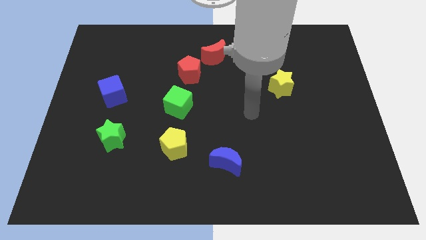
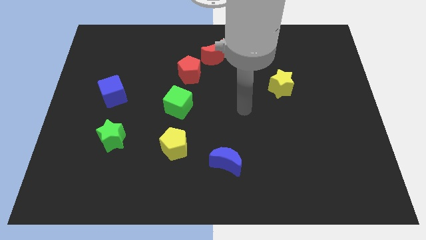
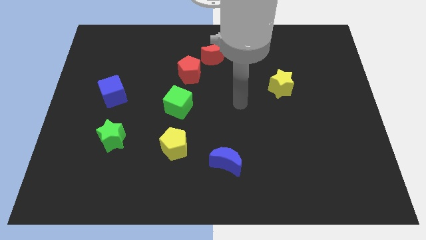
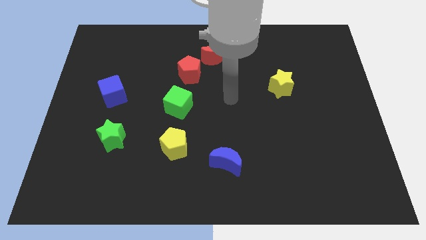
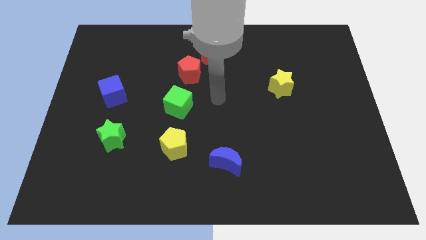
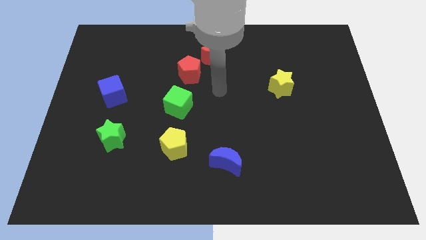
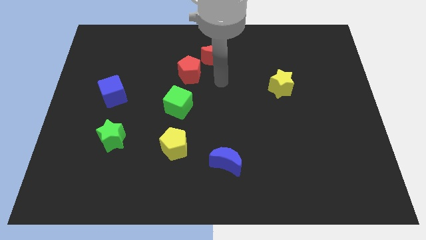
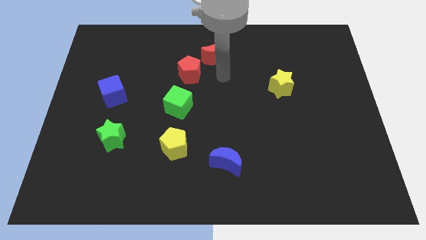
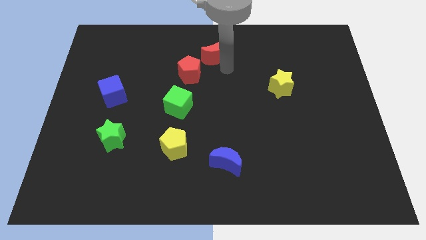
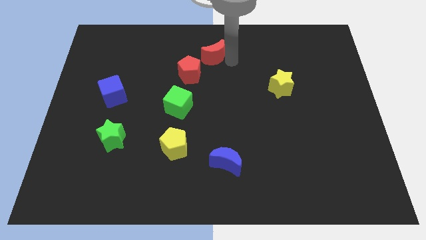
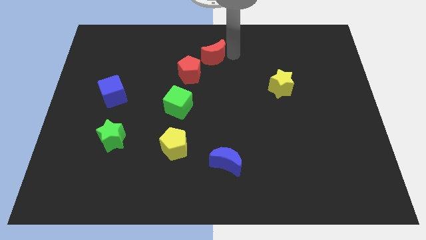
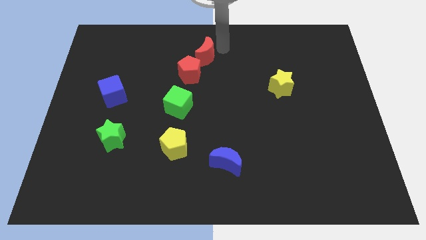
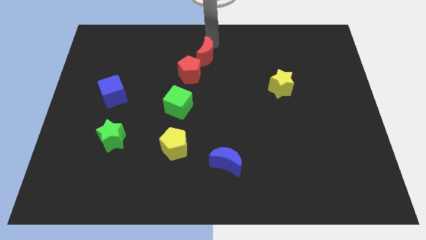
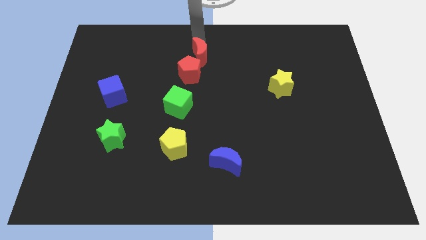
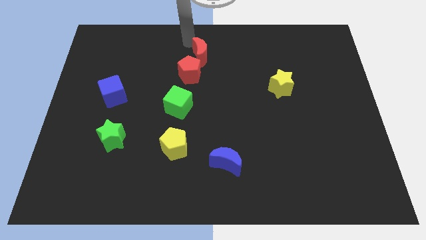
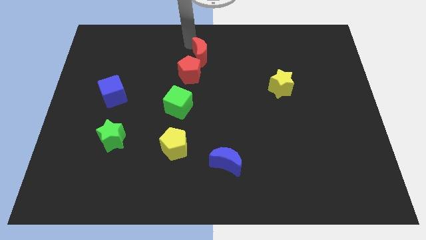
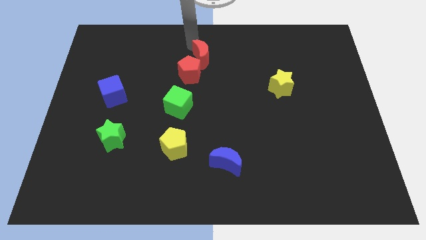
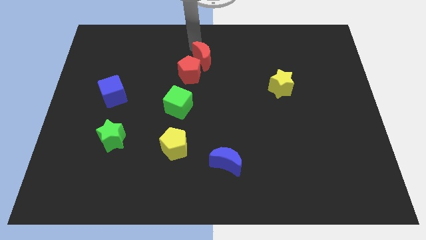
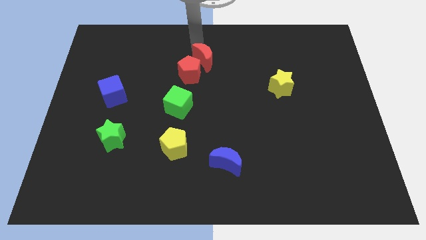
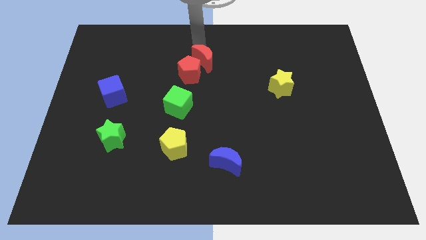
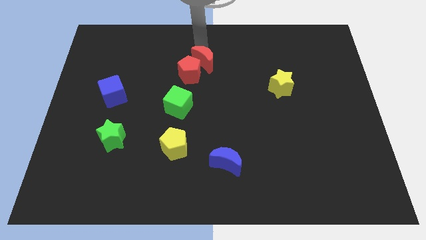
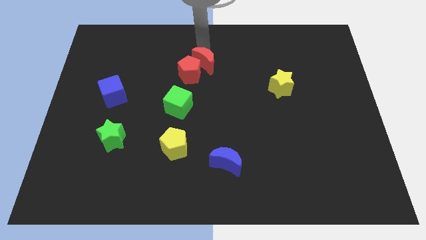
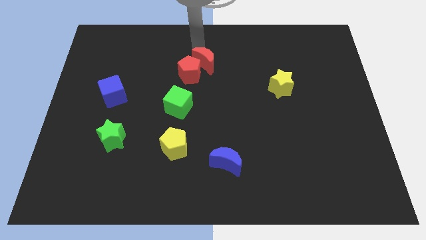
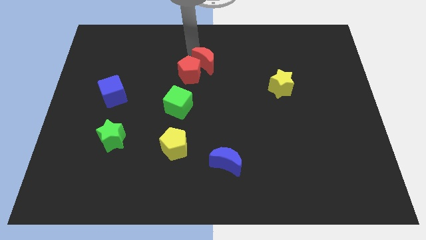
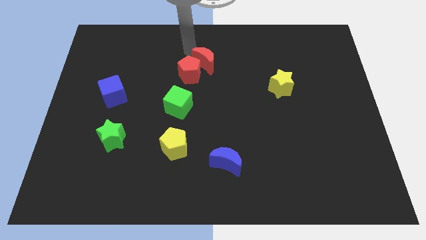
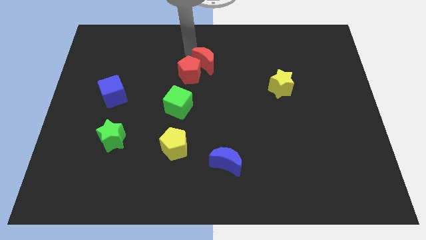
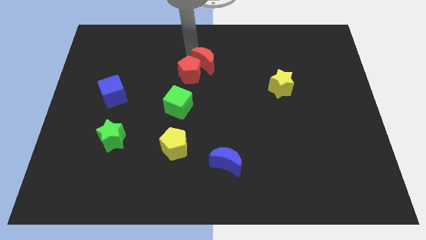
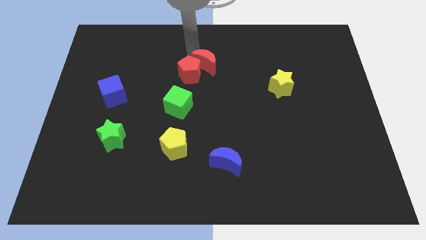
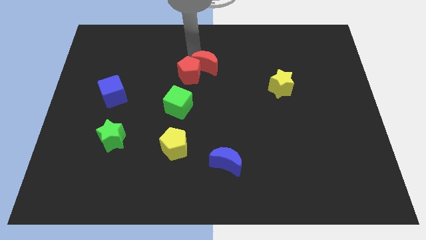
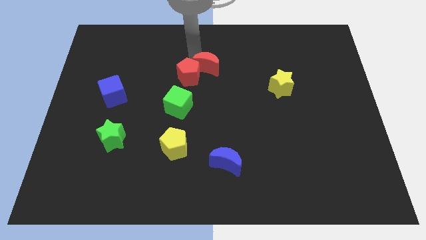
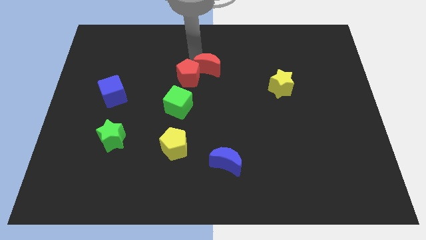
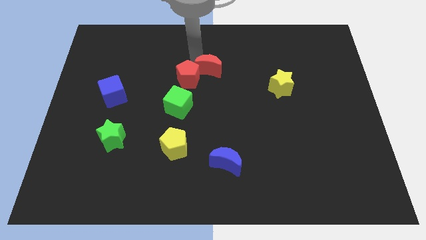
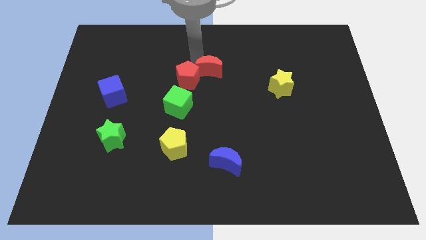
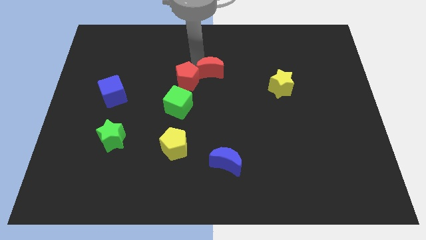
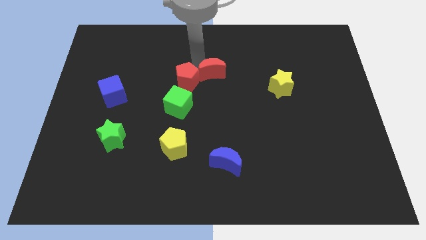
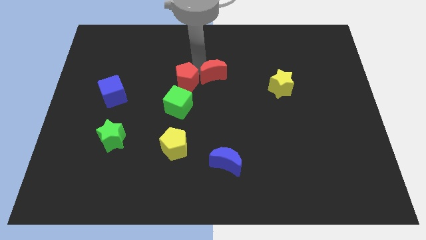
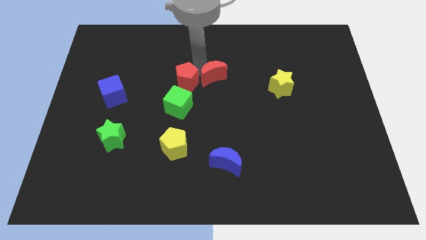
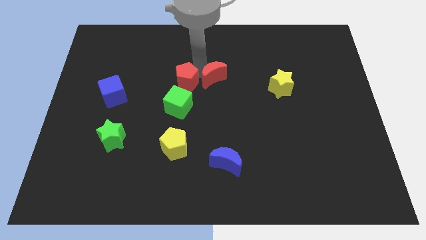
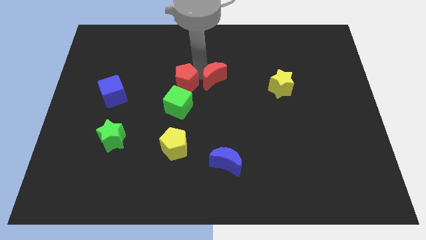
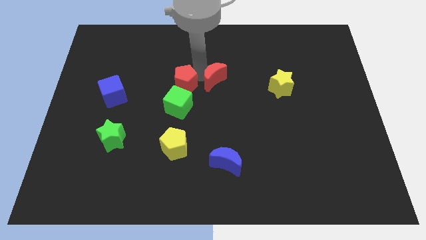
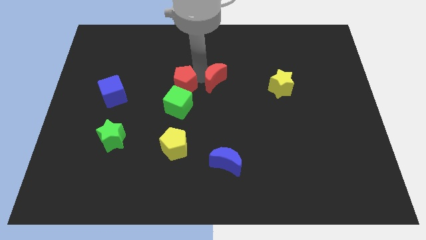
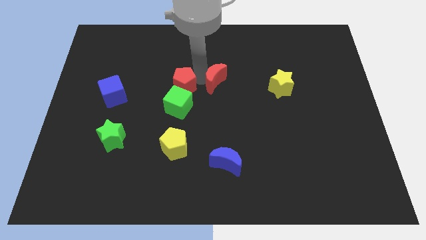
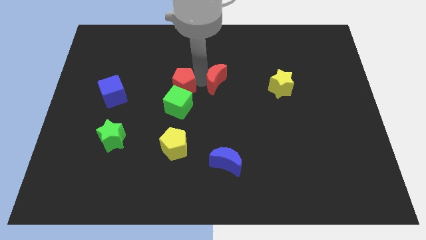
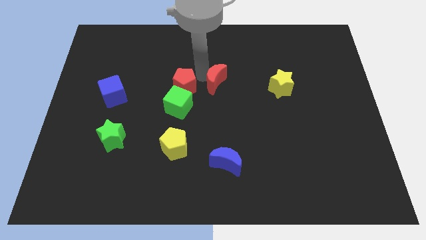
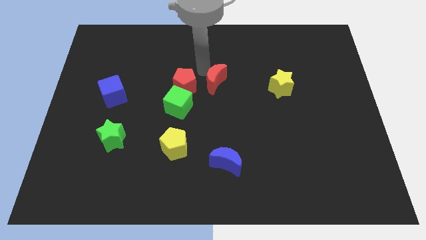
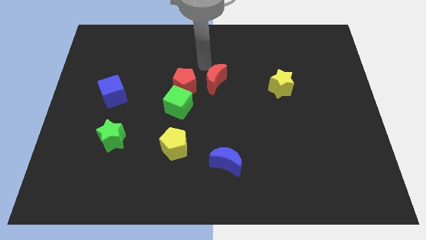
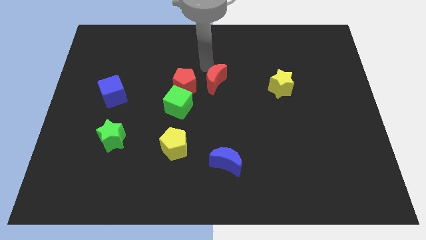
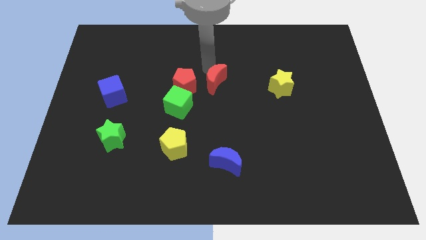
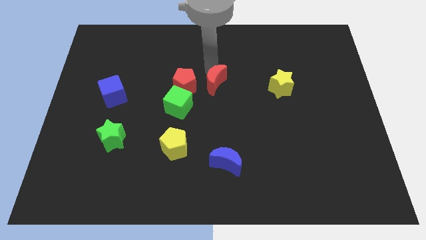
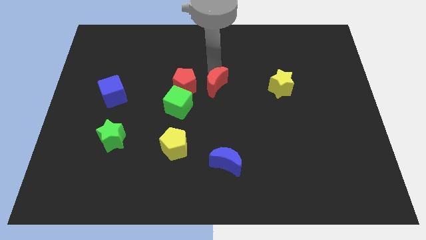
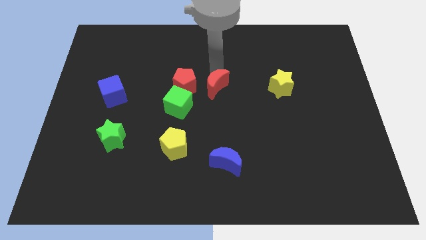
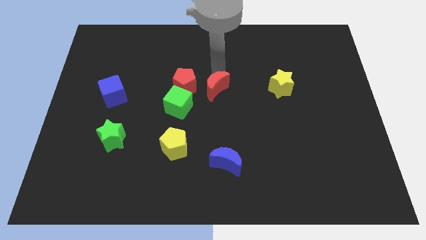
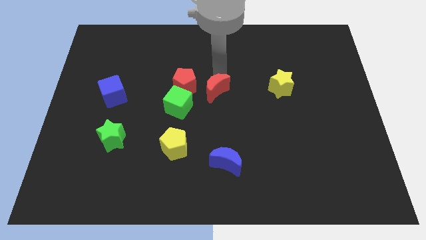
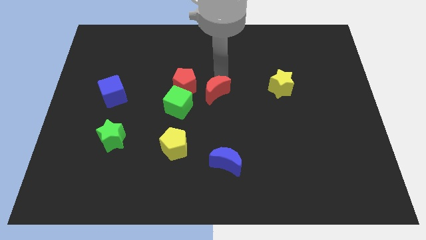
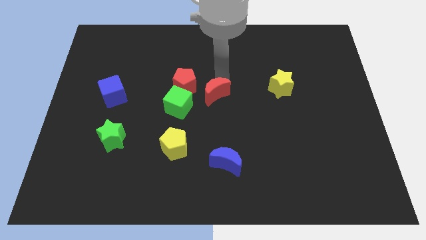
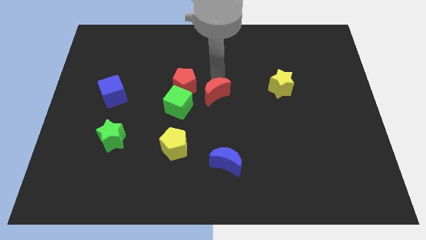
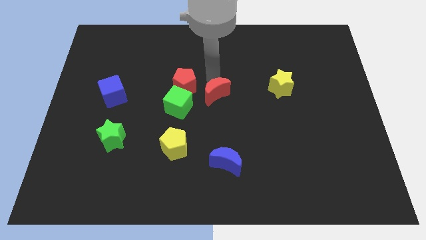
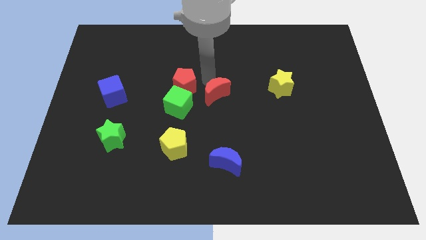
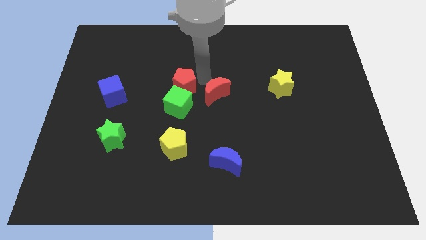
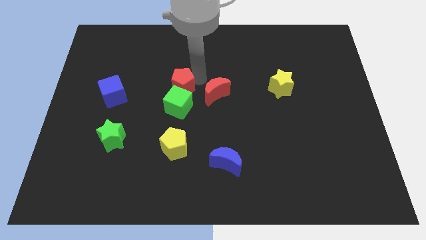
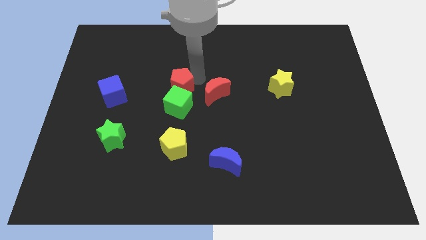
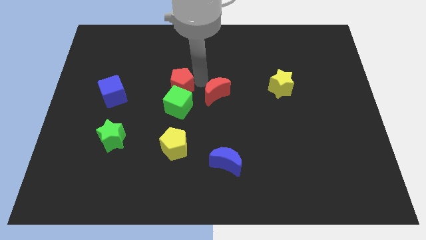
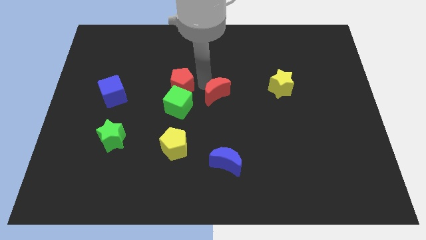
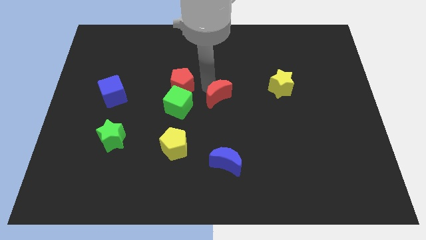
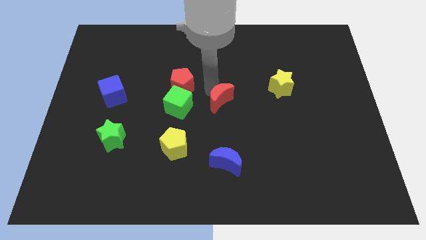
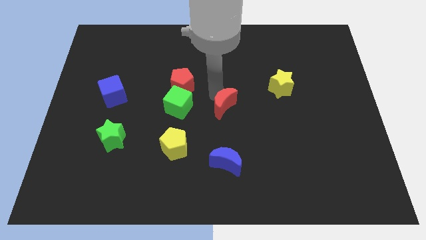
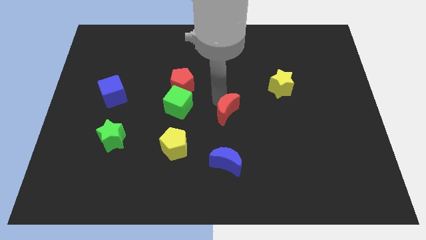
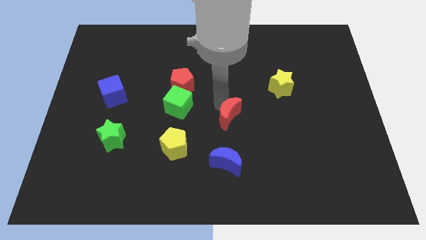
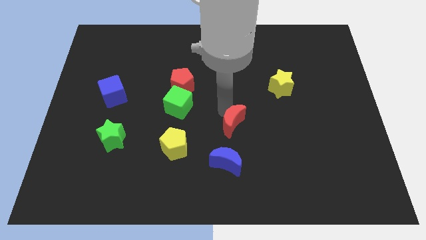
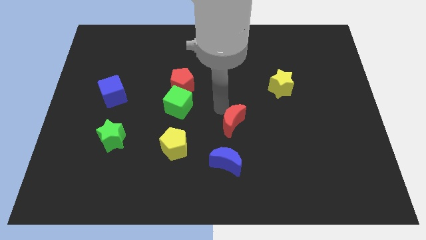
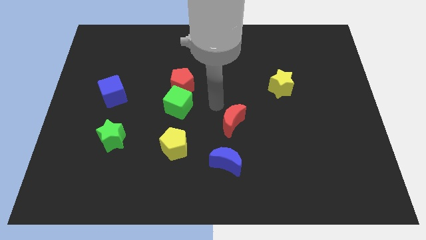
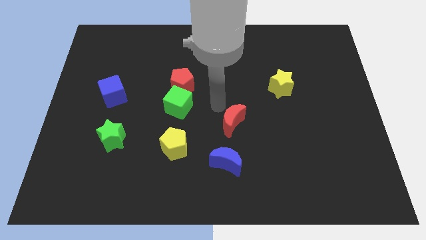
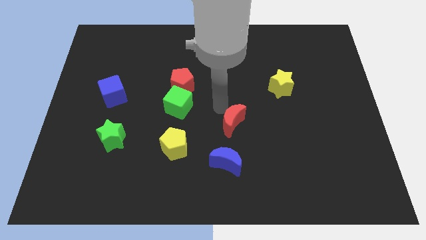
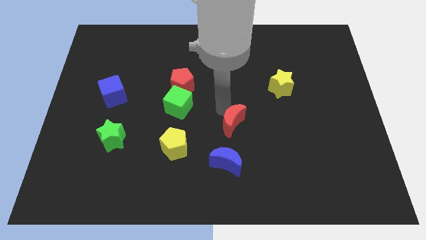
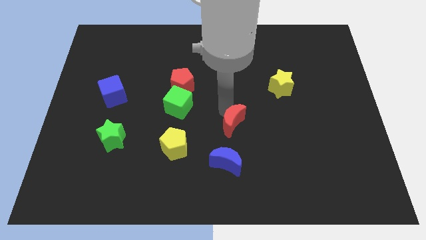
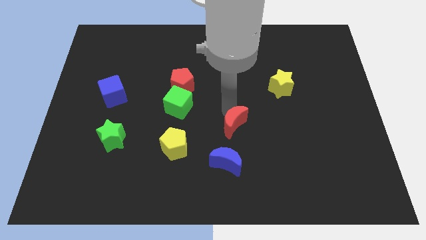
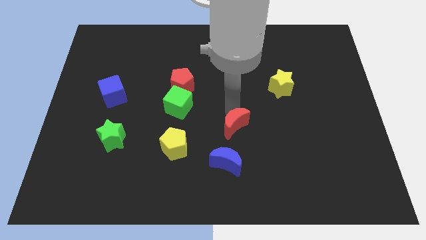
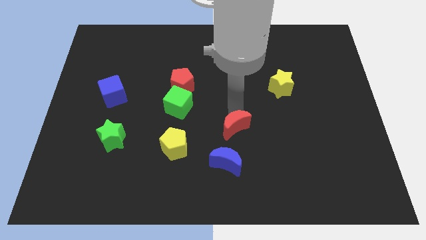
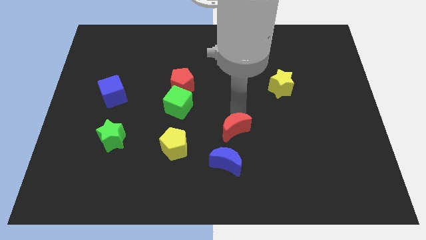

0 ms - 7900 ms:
move the red moon to the top right side of the blue moon
